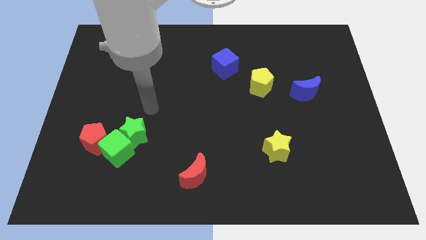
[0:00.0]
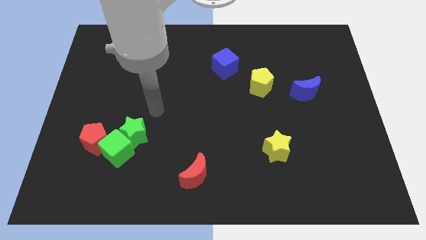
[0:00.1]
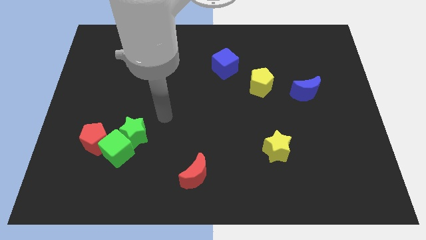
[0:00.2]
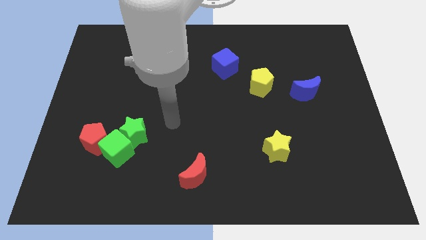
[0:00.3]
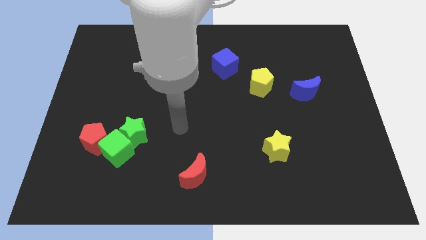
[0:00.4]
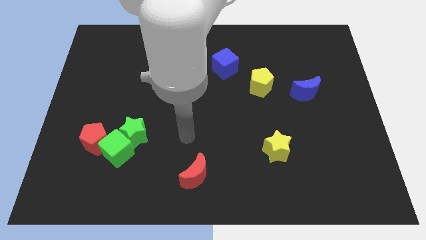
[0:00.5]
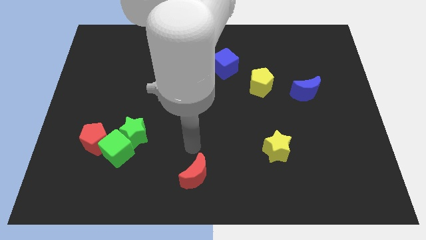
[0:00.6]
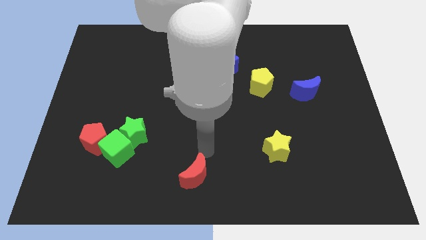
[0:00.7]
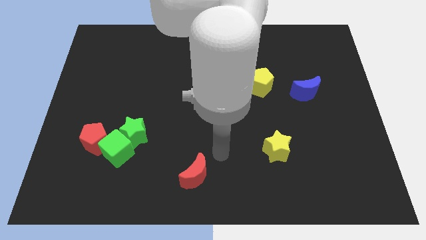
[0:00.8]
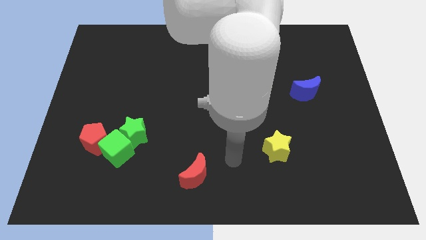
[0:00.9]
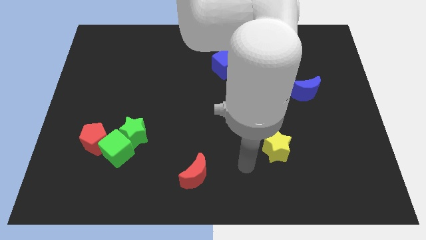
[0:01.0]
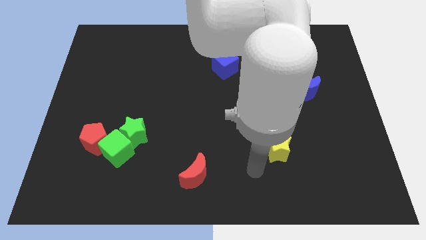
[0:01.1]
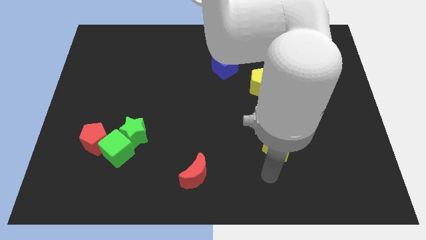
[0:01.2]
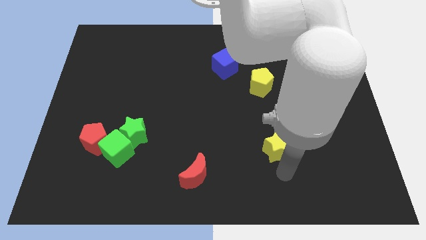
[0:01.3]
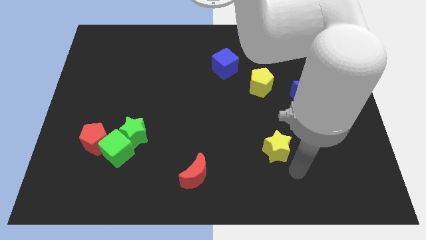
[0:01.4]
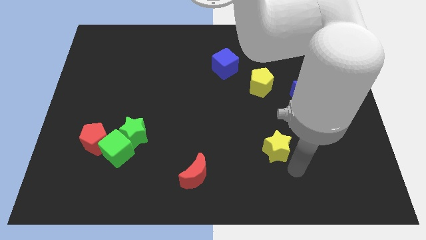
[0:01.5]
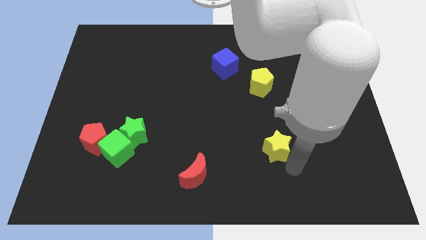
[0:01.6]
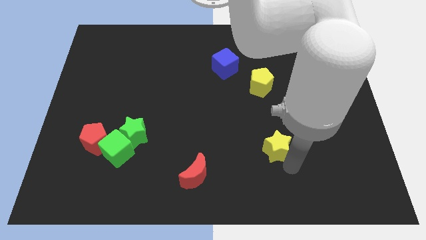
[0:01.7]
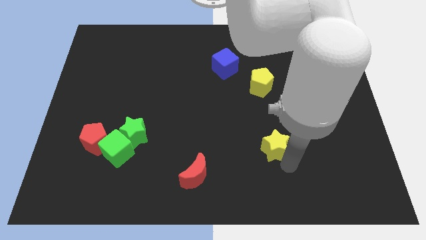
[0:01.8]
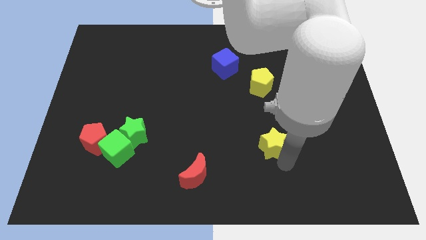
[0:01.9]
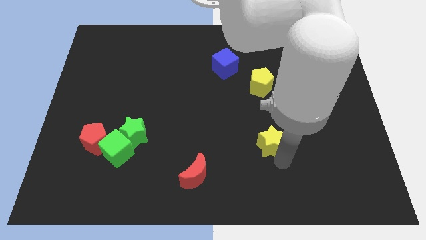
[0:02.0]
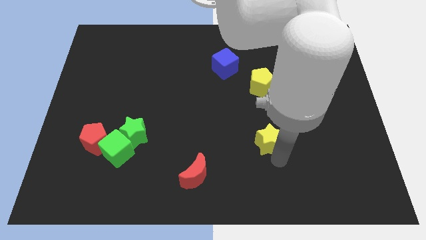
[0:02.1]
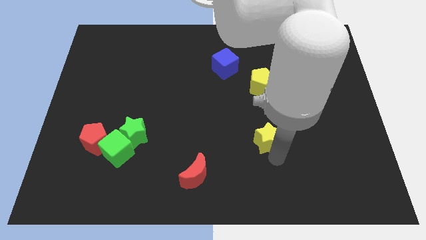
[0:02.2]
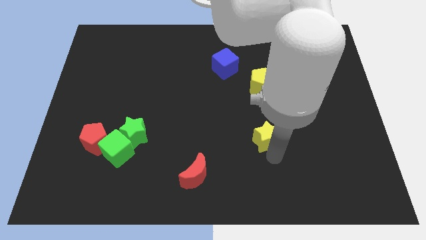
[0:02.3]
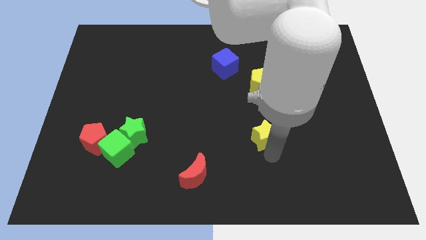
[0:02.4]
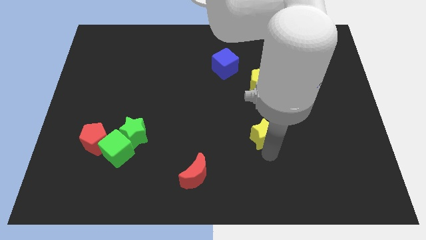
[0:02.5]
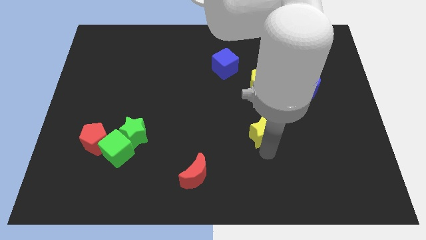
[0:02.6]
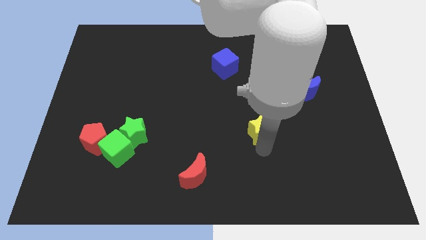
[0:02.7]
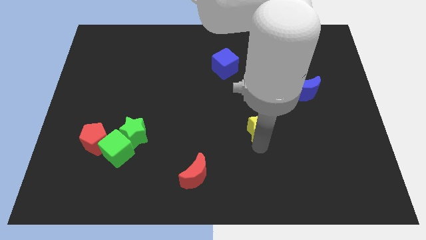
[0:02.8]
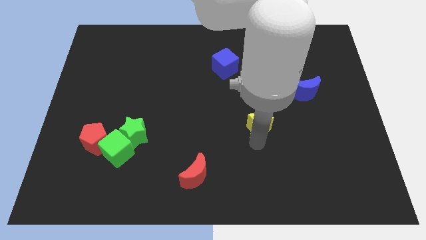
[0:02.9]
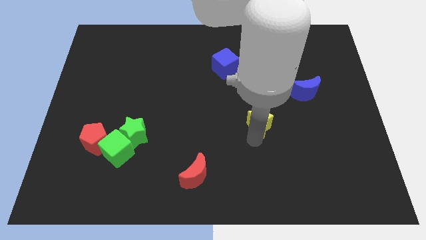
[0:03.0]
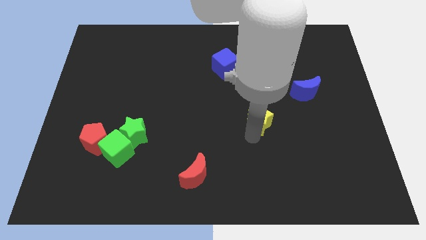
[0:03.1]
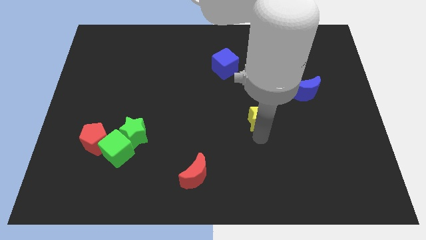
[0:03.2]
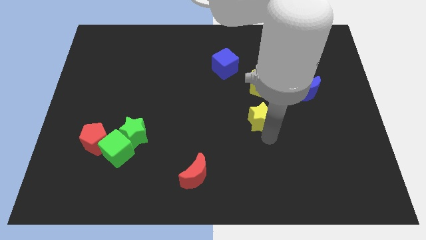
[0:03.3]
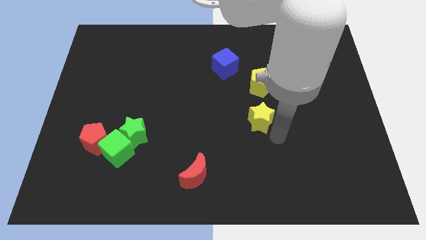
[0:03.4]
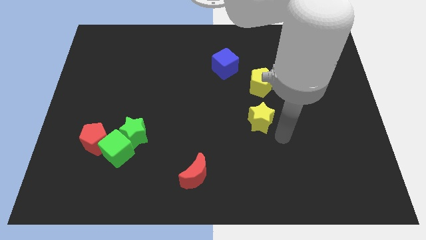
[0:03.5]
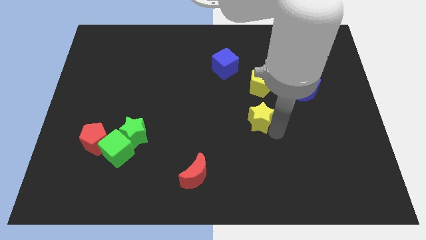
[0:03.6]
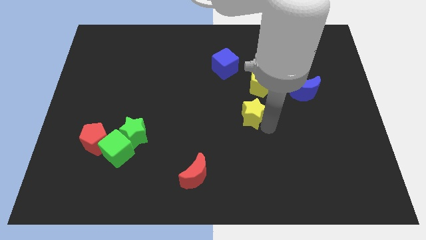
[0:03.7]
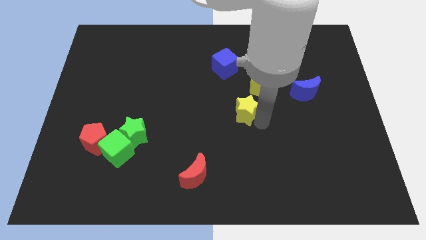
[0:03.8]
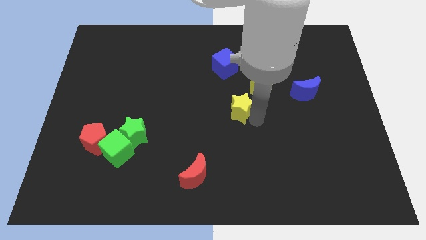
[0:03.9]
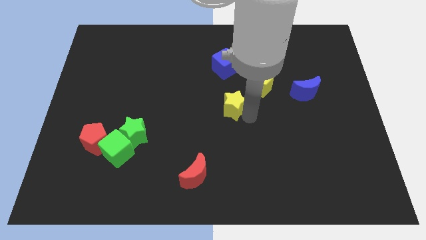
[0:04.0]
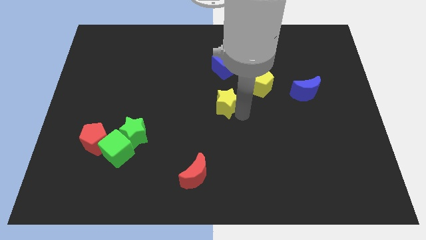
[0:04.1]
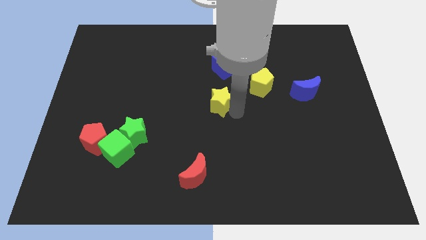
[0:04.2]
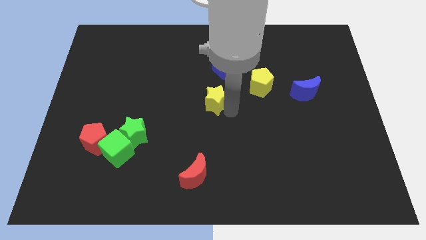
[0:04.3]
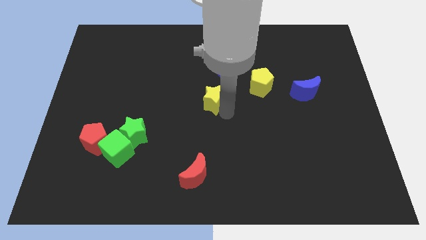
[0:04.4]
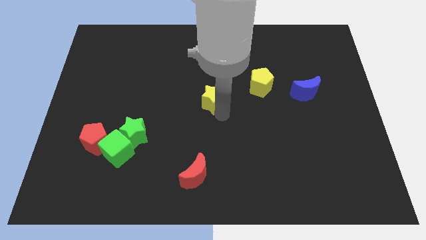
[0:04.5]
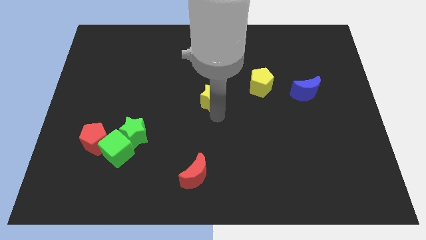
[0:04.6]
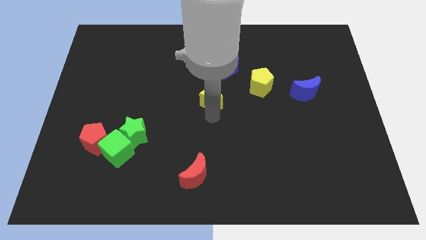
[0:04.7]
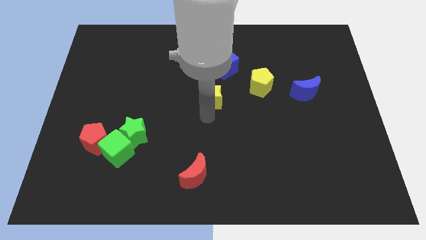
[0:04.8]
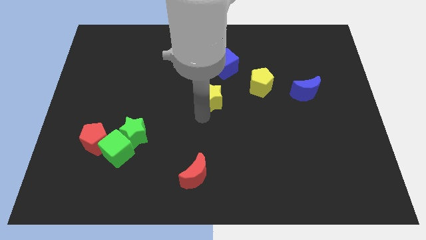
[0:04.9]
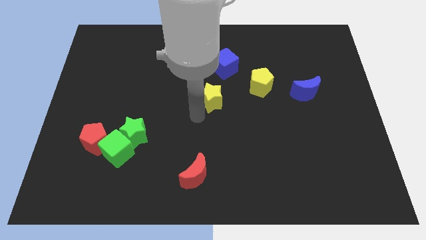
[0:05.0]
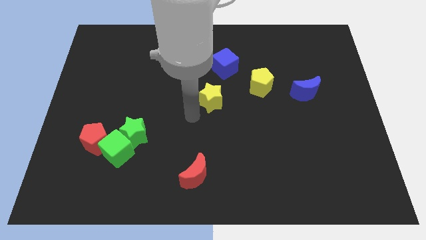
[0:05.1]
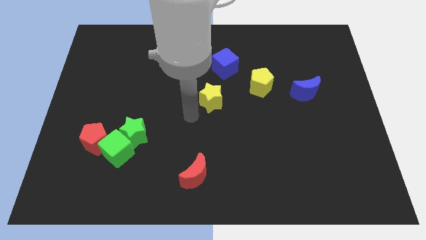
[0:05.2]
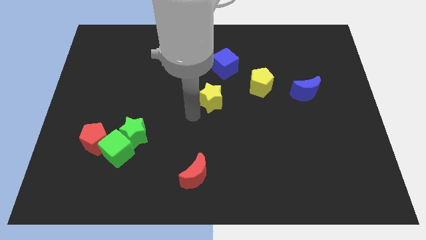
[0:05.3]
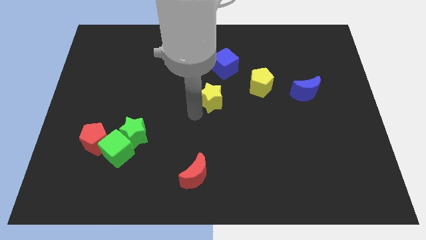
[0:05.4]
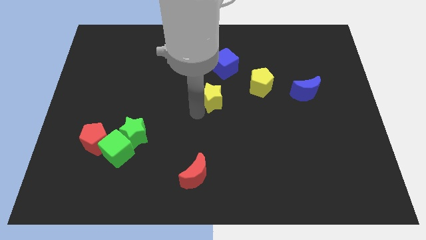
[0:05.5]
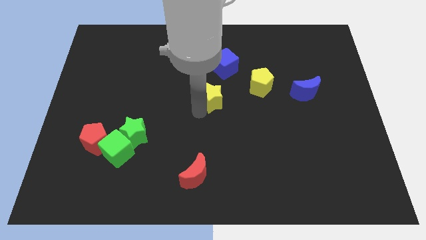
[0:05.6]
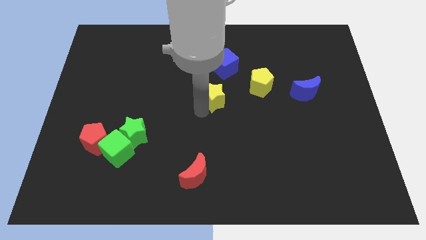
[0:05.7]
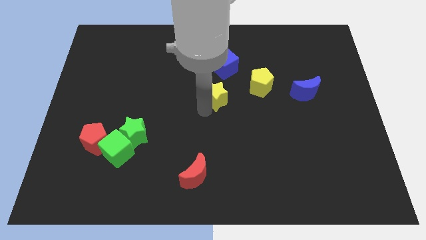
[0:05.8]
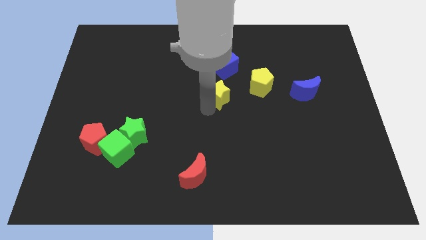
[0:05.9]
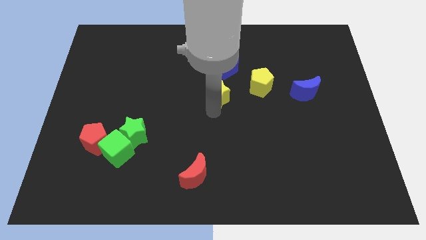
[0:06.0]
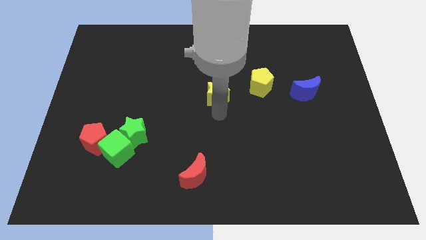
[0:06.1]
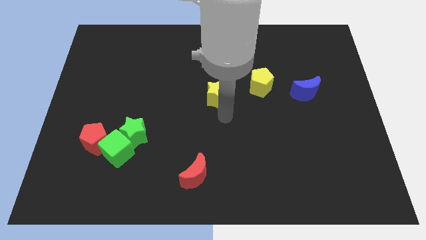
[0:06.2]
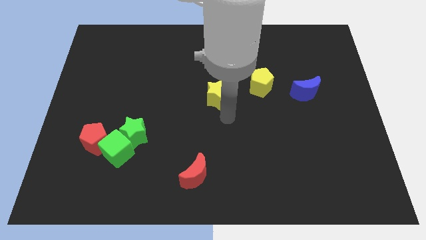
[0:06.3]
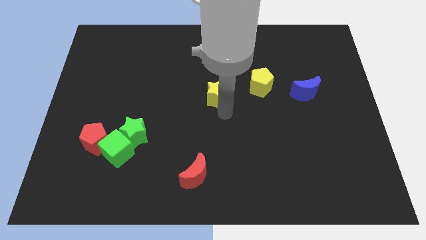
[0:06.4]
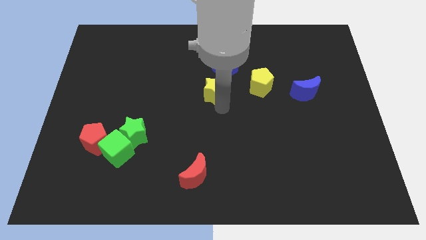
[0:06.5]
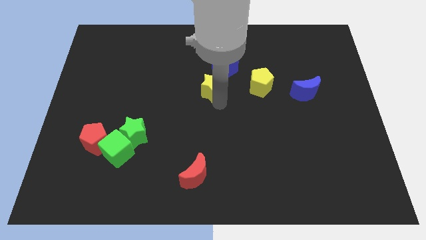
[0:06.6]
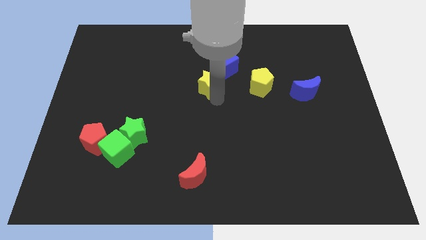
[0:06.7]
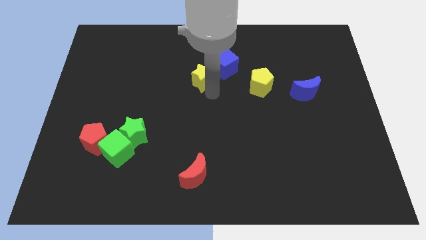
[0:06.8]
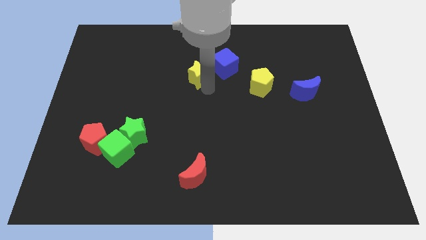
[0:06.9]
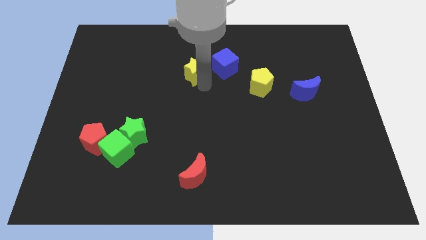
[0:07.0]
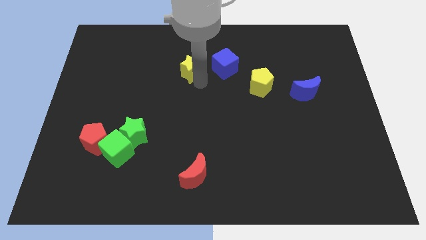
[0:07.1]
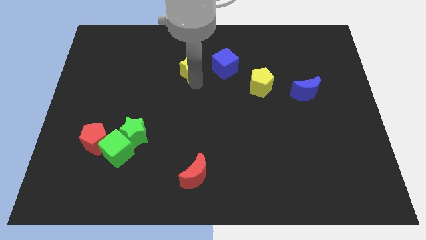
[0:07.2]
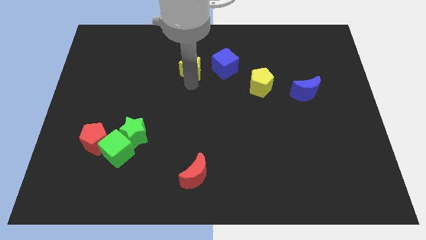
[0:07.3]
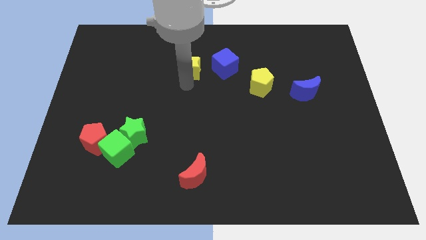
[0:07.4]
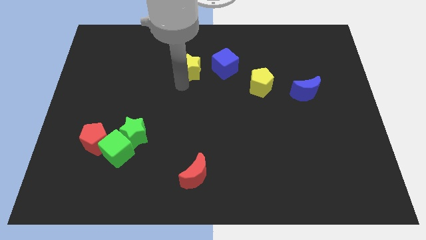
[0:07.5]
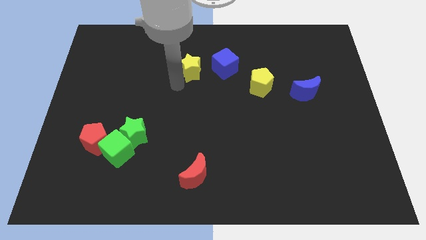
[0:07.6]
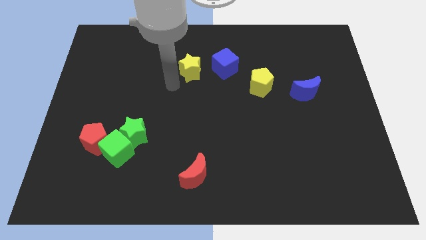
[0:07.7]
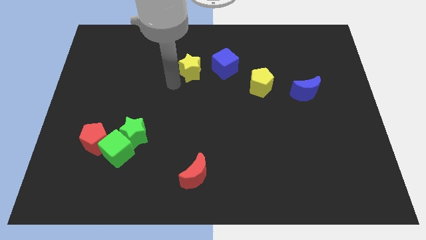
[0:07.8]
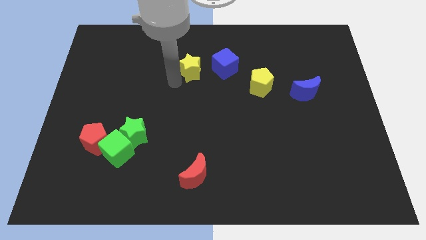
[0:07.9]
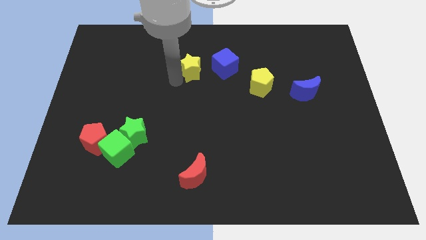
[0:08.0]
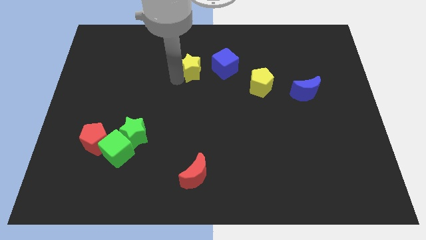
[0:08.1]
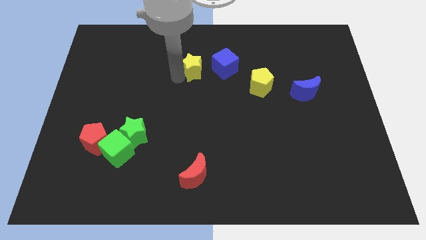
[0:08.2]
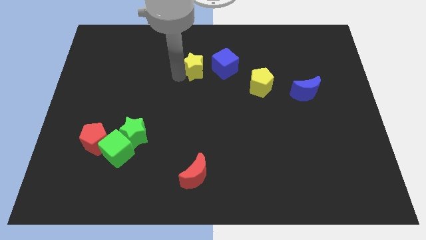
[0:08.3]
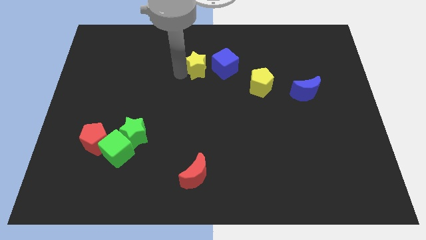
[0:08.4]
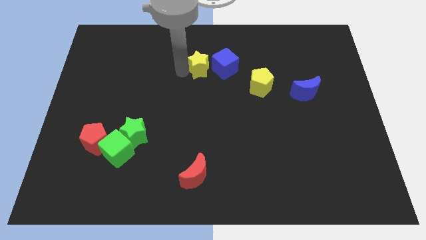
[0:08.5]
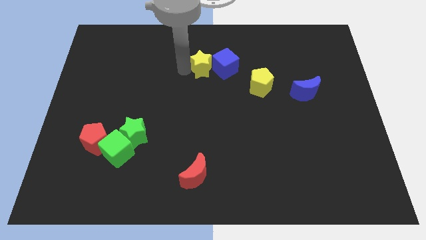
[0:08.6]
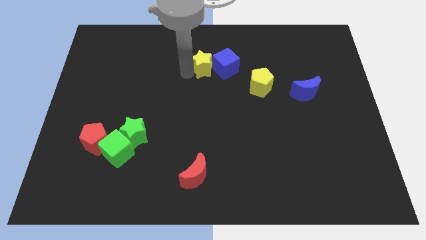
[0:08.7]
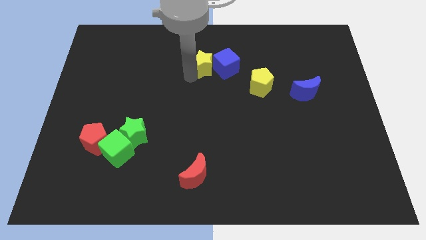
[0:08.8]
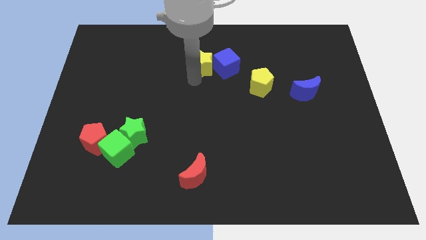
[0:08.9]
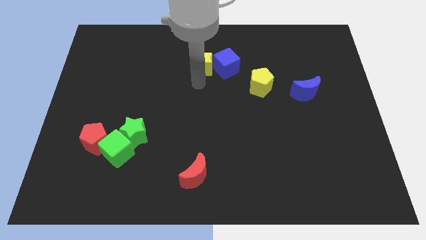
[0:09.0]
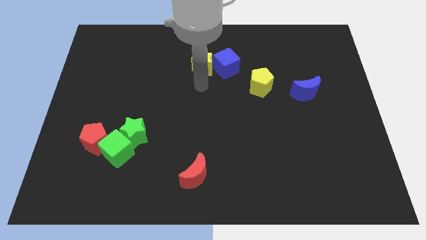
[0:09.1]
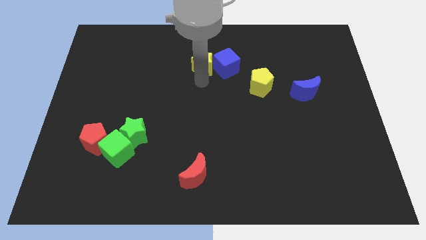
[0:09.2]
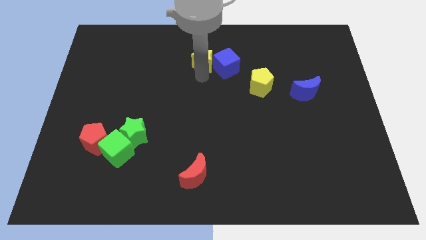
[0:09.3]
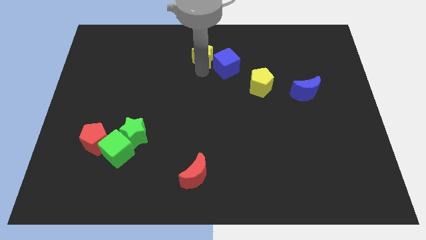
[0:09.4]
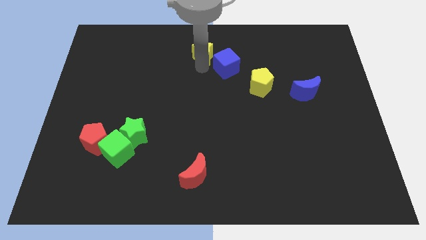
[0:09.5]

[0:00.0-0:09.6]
slide the yellow star to the towards your base
